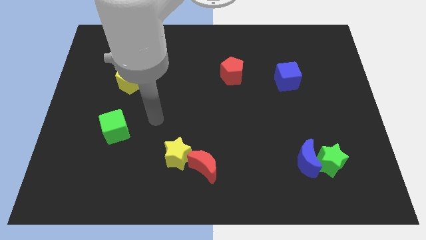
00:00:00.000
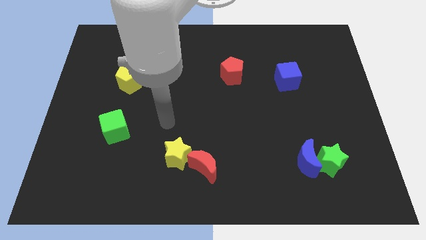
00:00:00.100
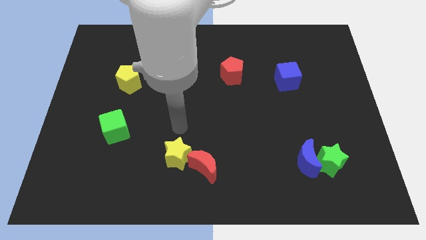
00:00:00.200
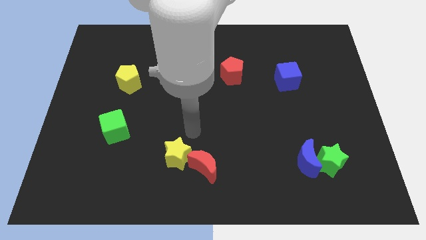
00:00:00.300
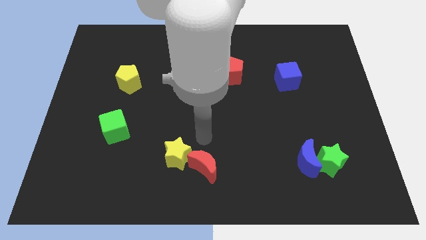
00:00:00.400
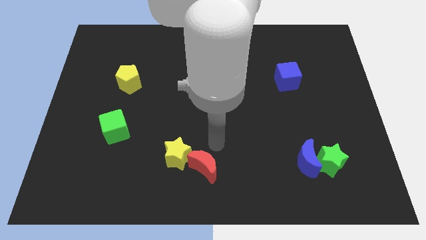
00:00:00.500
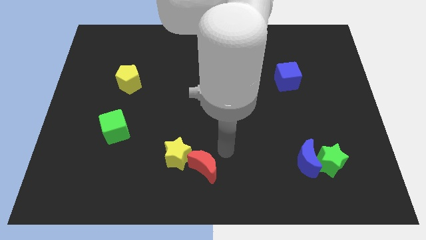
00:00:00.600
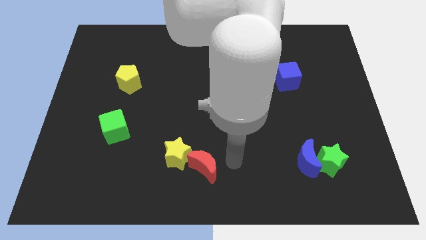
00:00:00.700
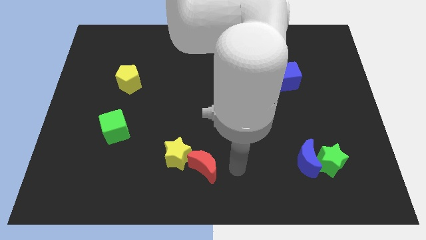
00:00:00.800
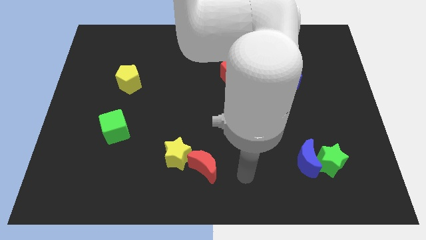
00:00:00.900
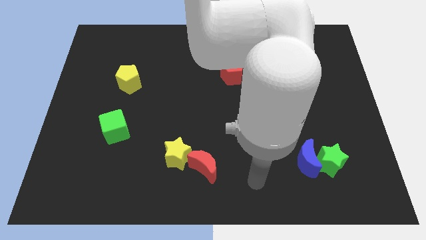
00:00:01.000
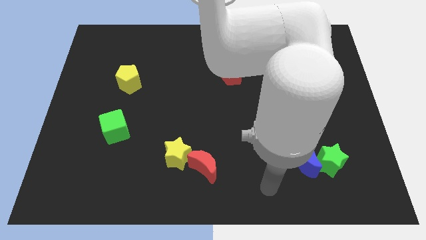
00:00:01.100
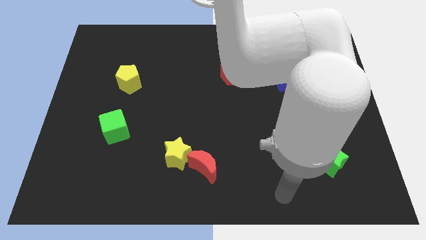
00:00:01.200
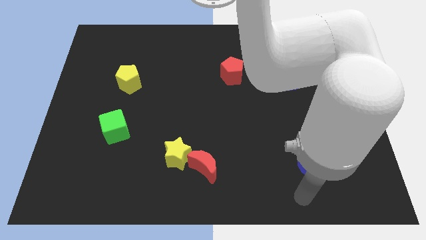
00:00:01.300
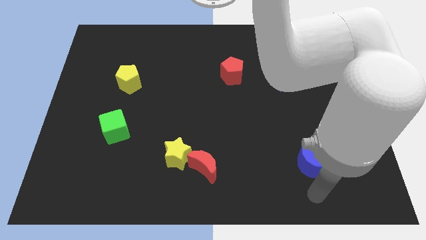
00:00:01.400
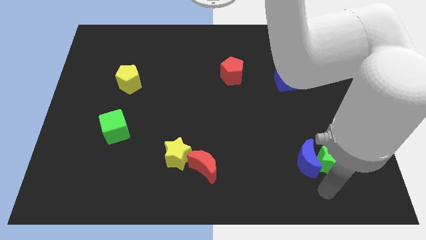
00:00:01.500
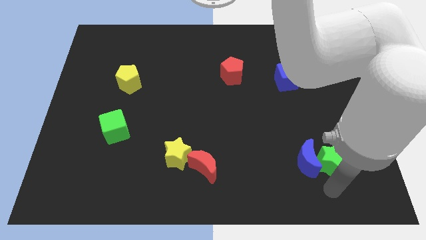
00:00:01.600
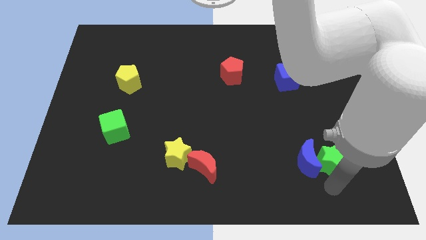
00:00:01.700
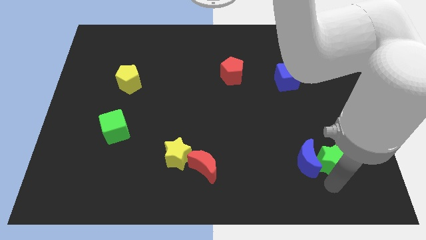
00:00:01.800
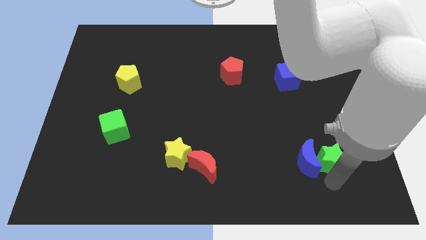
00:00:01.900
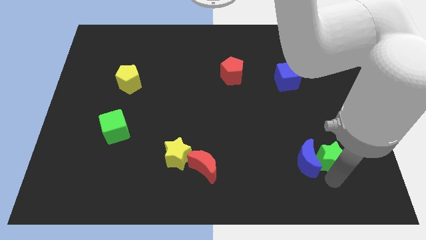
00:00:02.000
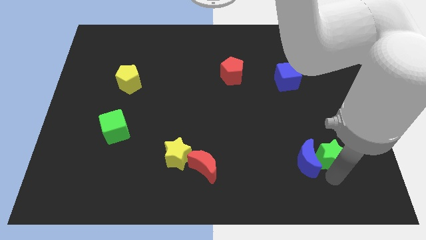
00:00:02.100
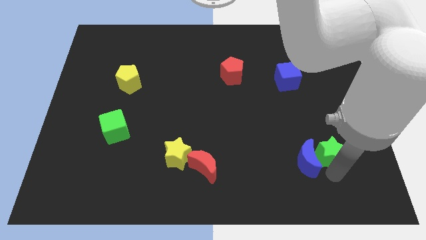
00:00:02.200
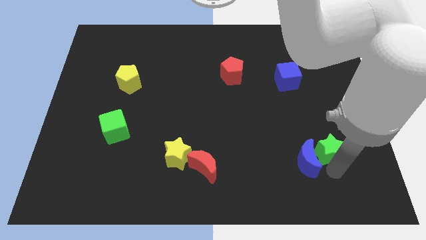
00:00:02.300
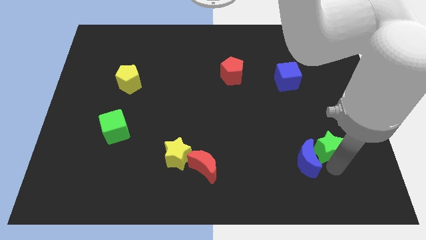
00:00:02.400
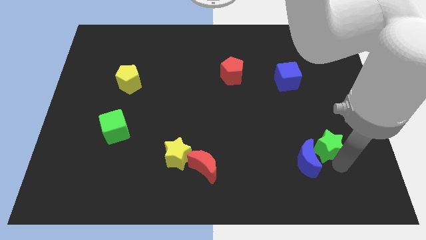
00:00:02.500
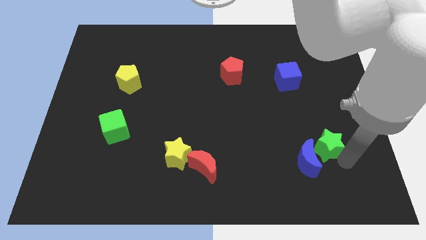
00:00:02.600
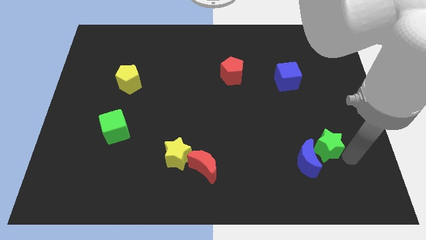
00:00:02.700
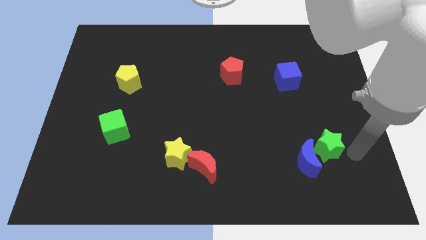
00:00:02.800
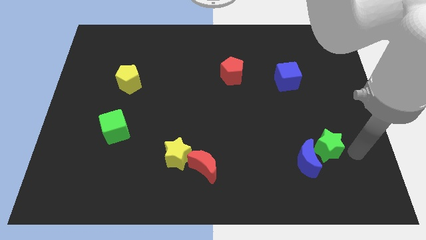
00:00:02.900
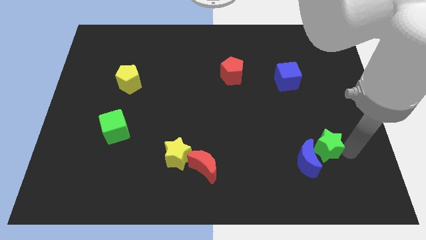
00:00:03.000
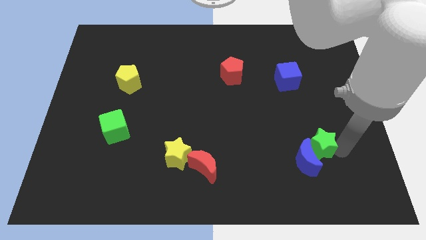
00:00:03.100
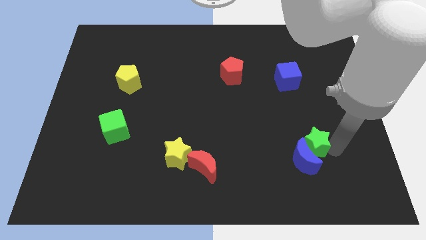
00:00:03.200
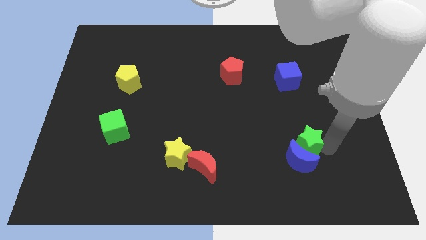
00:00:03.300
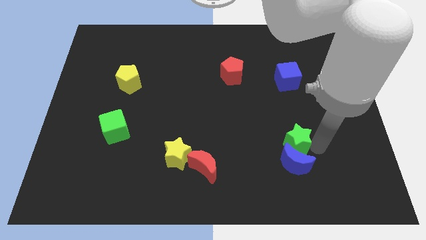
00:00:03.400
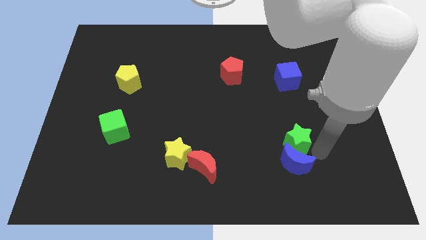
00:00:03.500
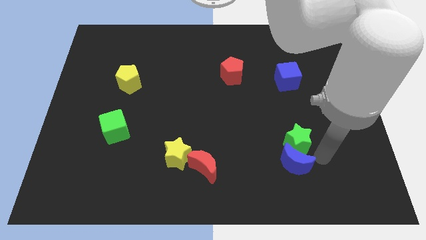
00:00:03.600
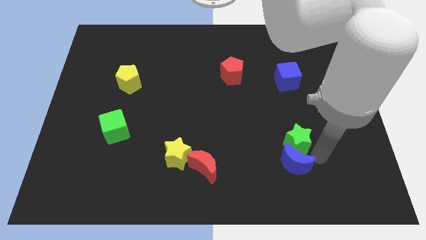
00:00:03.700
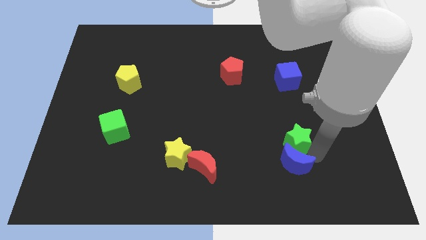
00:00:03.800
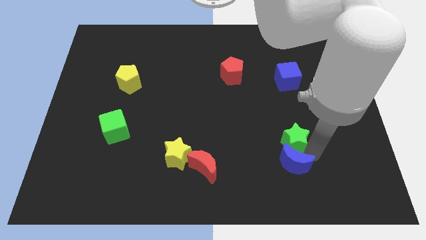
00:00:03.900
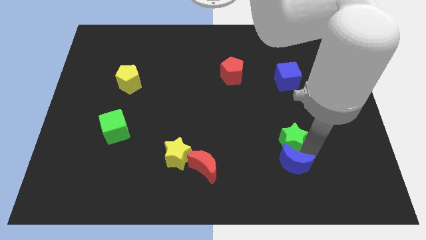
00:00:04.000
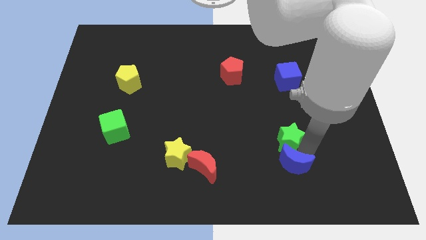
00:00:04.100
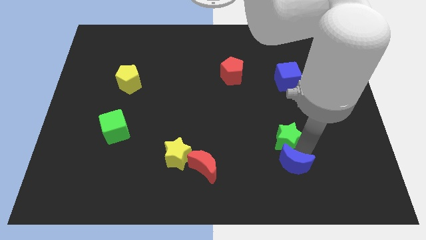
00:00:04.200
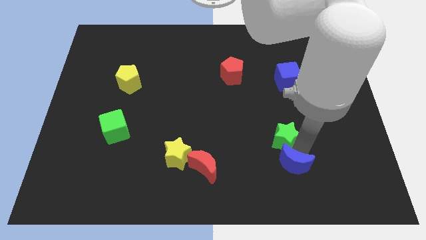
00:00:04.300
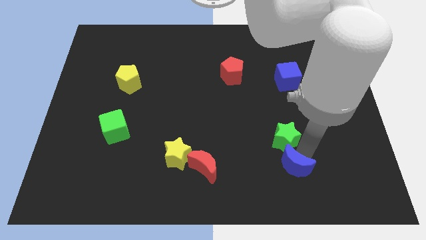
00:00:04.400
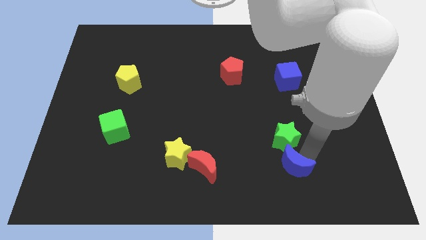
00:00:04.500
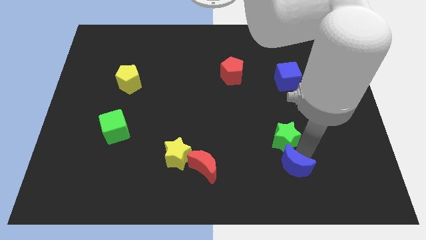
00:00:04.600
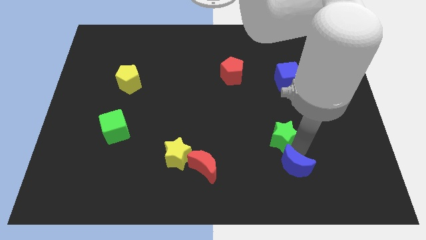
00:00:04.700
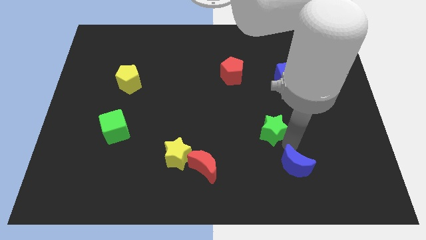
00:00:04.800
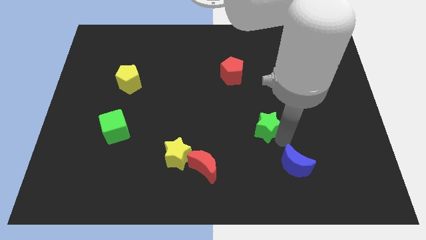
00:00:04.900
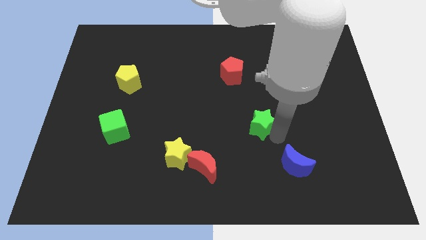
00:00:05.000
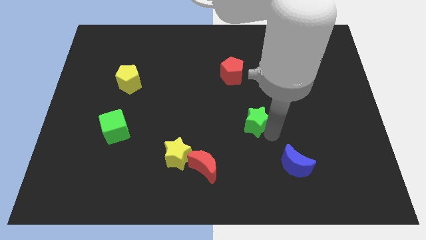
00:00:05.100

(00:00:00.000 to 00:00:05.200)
slide the green star to the middle

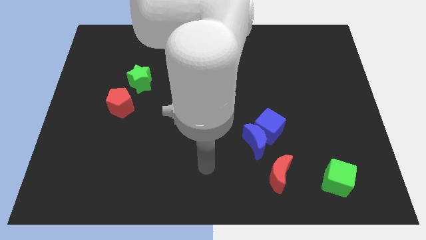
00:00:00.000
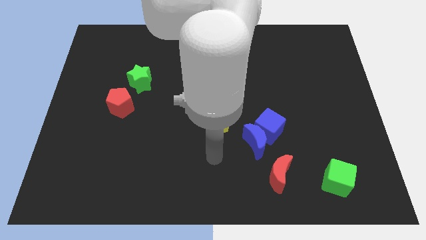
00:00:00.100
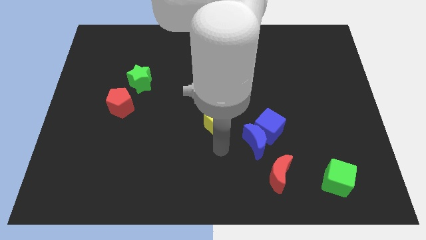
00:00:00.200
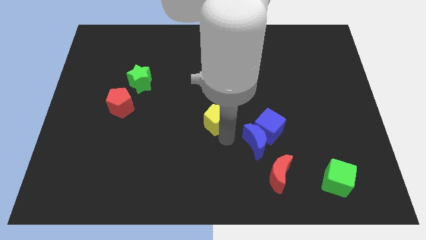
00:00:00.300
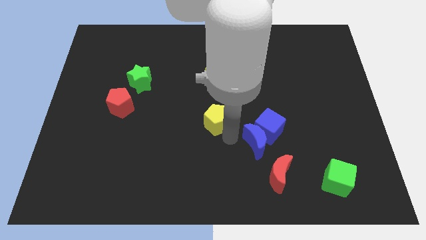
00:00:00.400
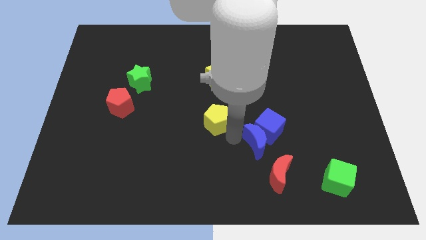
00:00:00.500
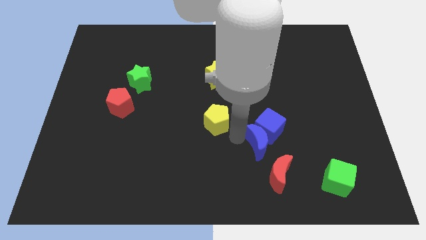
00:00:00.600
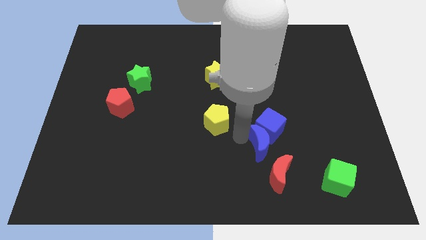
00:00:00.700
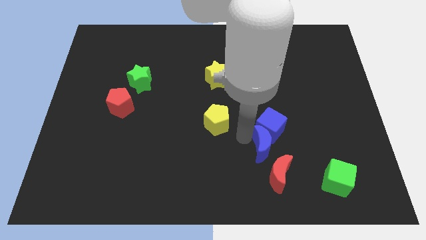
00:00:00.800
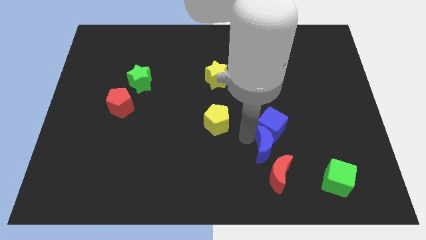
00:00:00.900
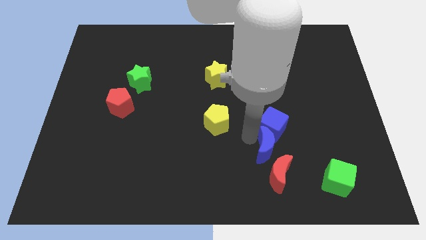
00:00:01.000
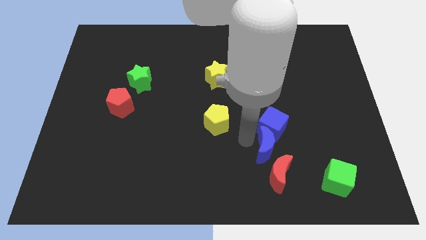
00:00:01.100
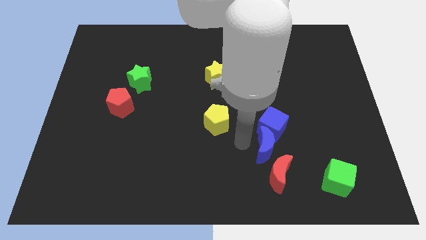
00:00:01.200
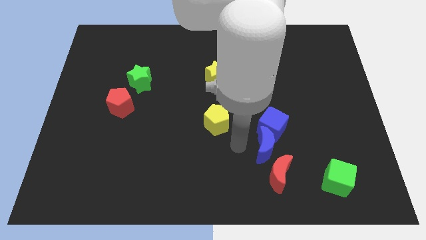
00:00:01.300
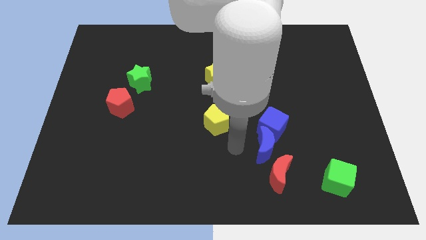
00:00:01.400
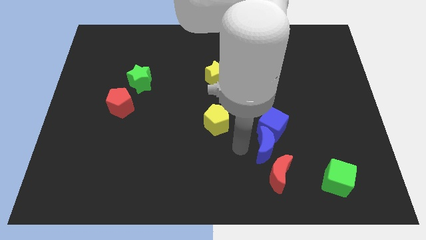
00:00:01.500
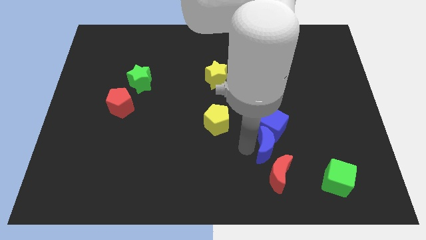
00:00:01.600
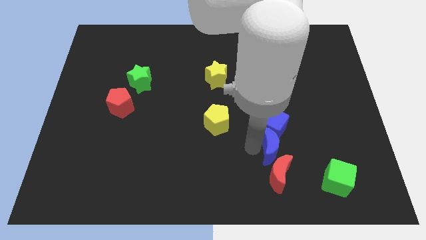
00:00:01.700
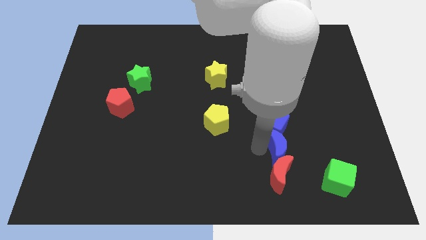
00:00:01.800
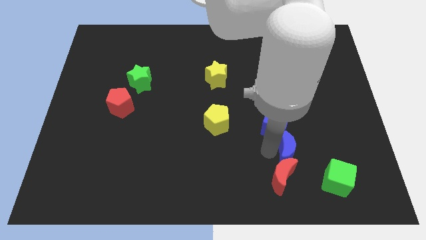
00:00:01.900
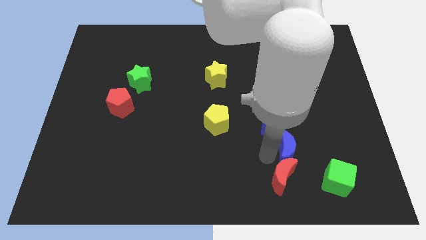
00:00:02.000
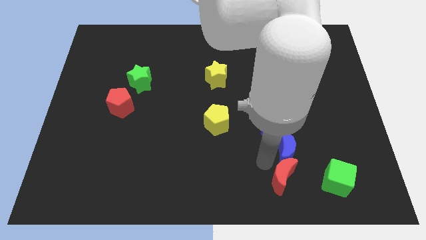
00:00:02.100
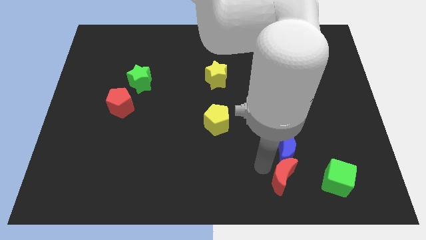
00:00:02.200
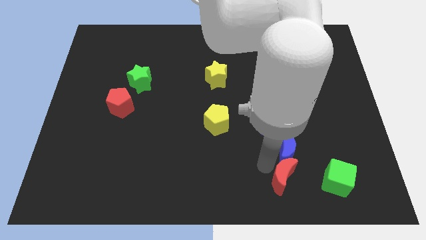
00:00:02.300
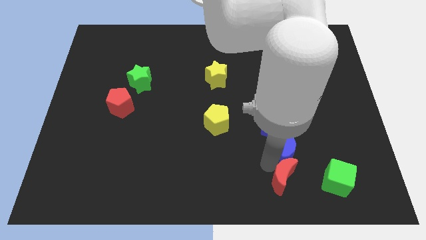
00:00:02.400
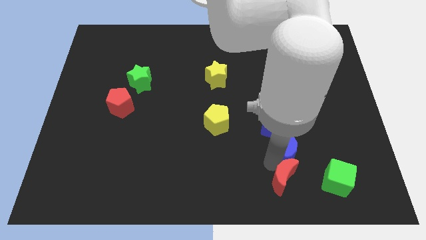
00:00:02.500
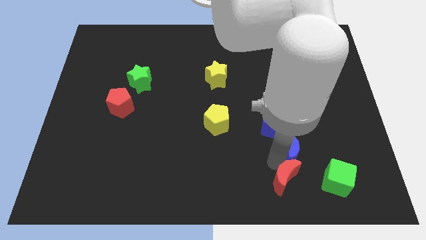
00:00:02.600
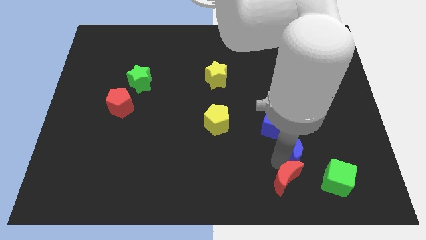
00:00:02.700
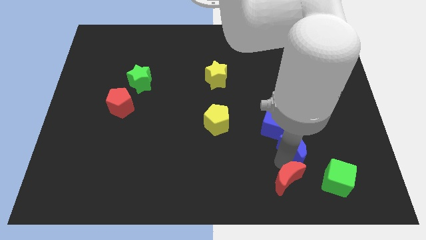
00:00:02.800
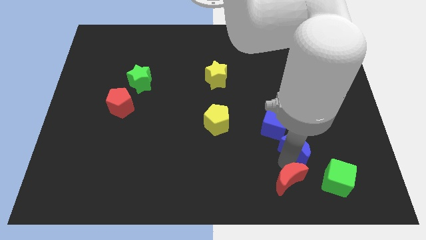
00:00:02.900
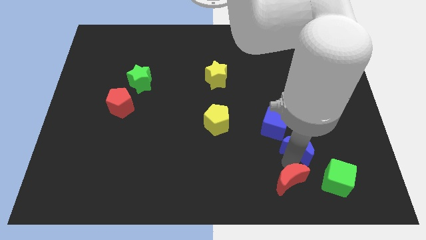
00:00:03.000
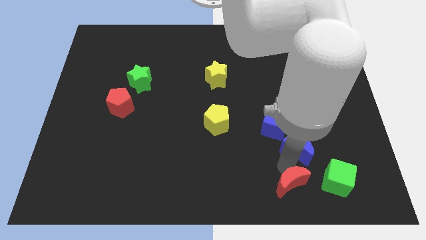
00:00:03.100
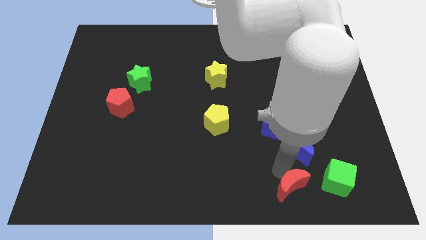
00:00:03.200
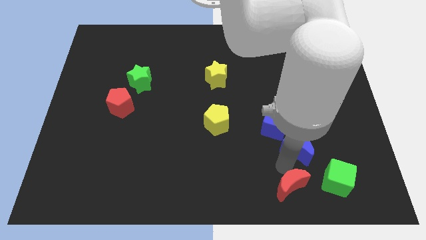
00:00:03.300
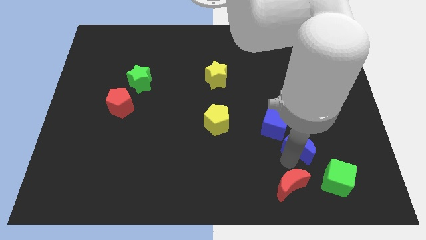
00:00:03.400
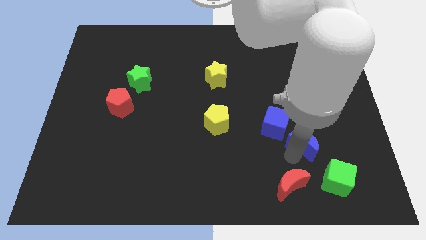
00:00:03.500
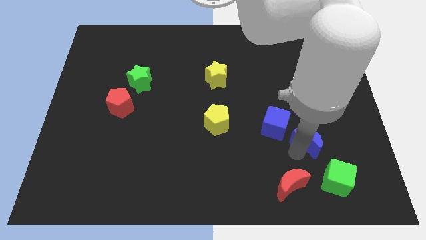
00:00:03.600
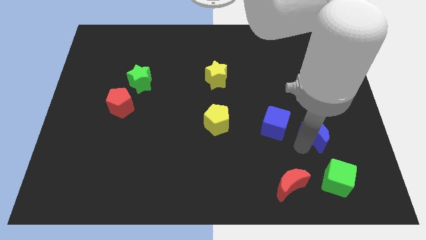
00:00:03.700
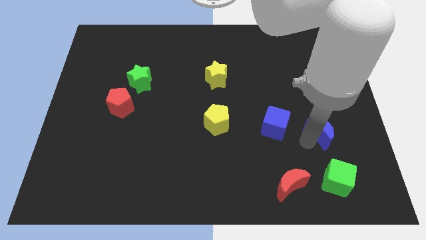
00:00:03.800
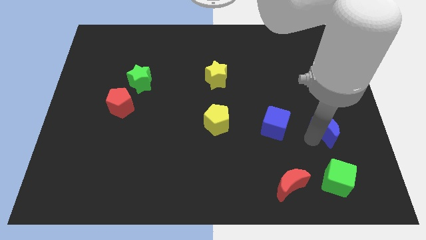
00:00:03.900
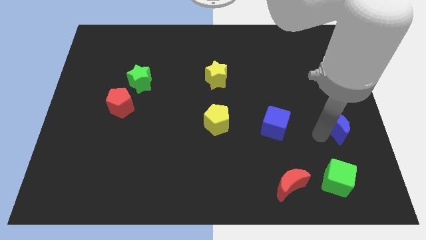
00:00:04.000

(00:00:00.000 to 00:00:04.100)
push the blue moon to the right side of the board
